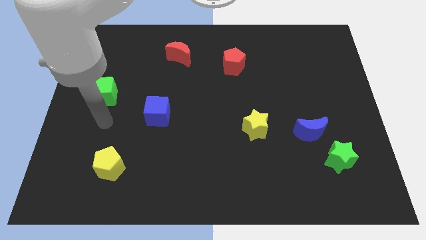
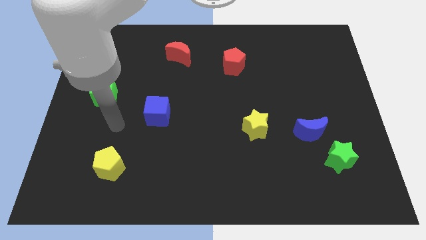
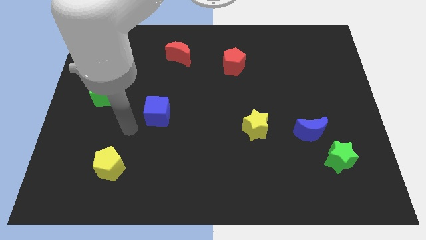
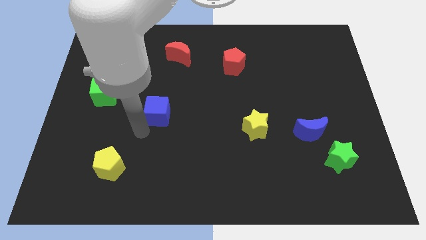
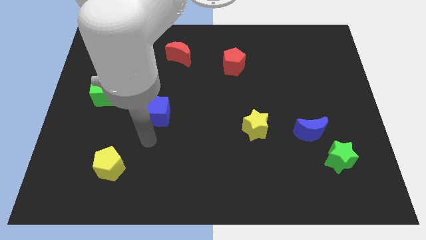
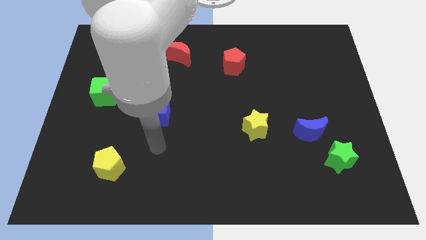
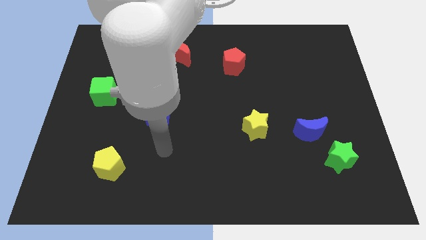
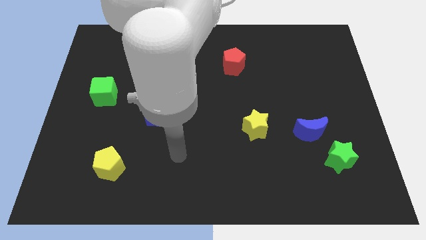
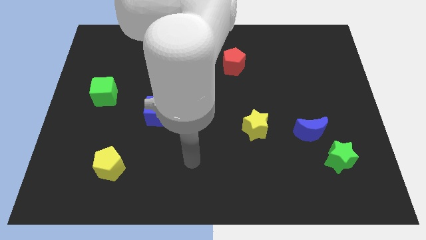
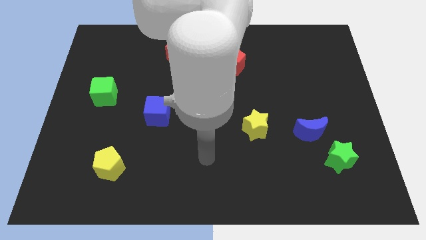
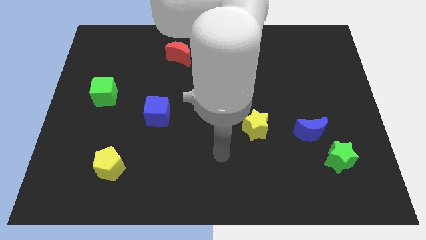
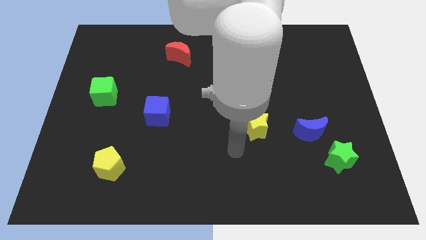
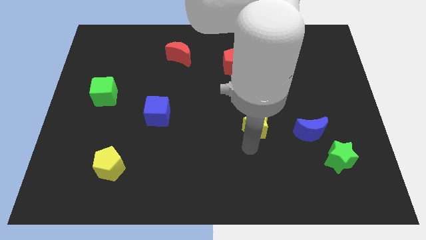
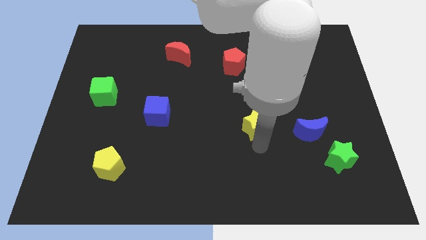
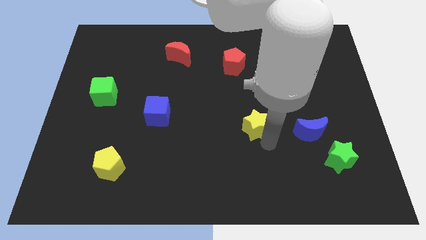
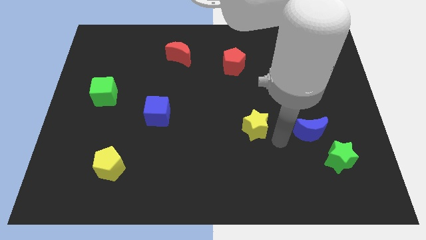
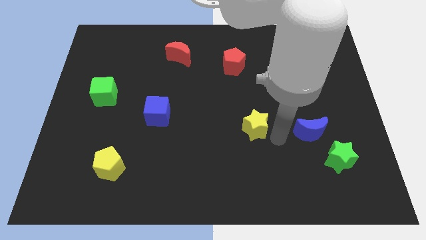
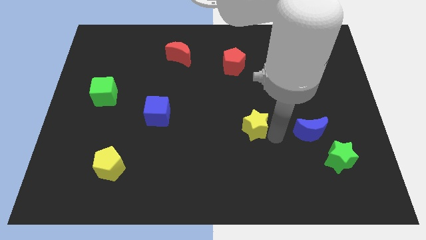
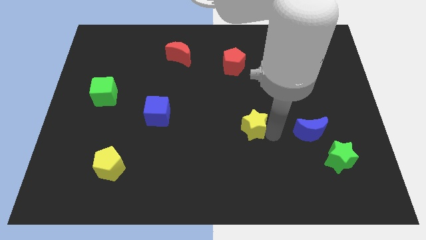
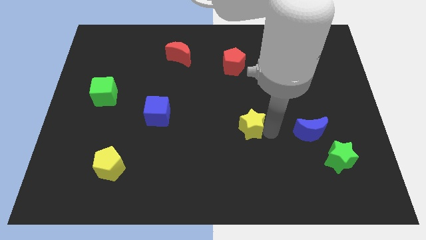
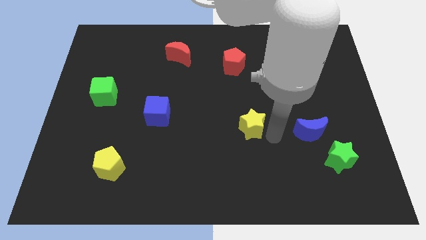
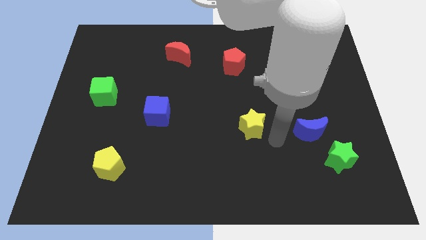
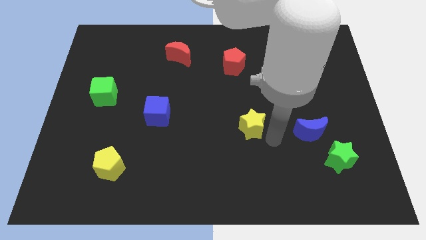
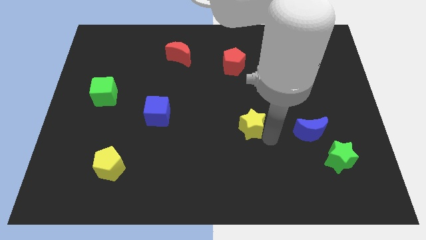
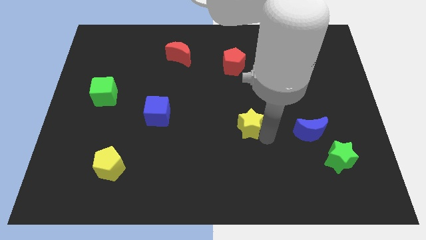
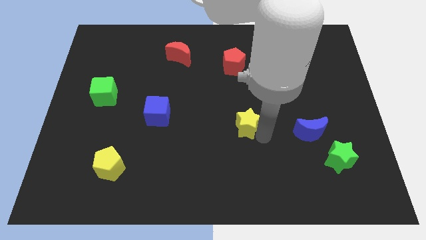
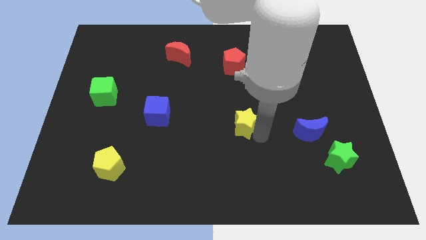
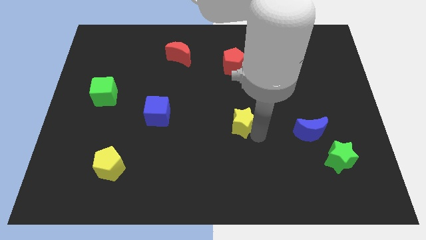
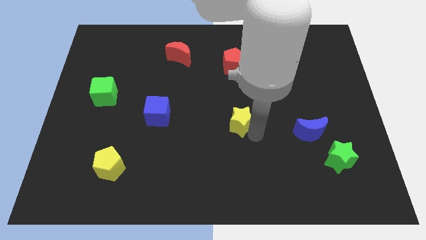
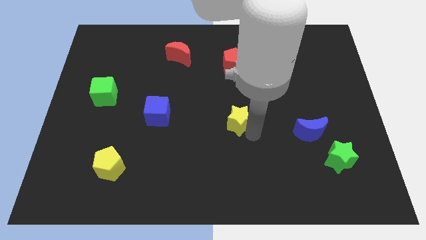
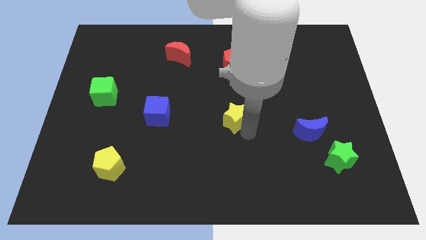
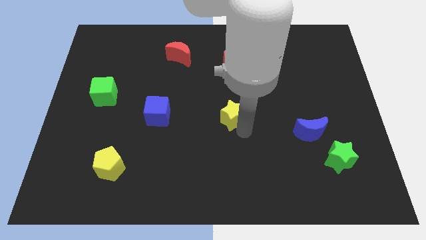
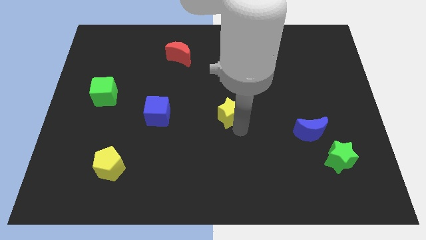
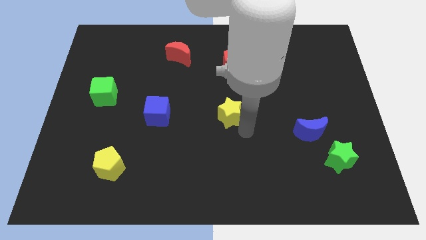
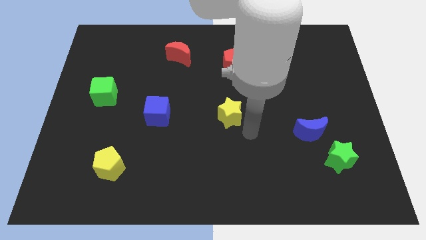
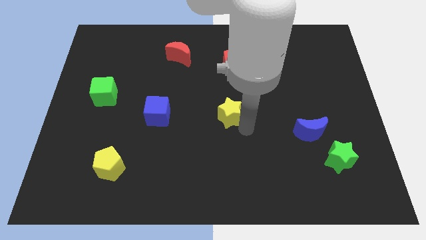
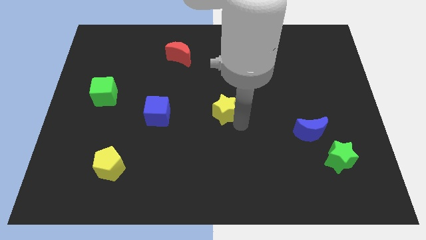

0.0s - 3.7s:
push the yellow star upwards and left diagonally a bit

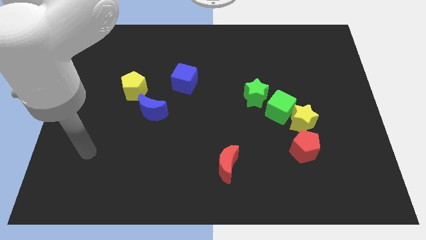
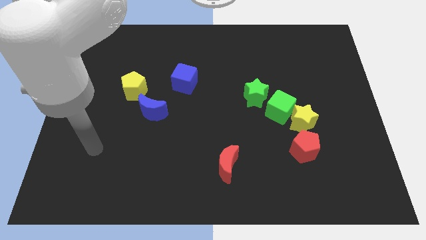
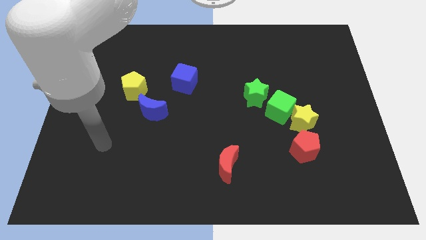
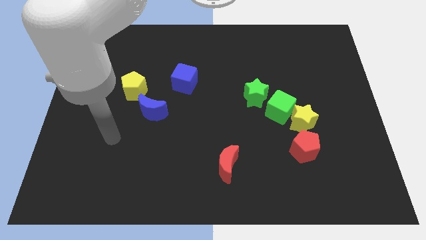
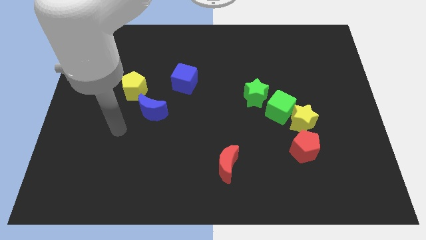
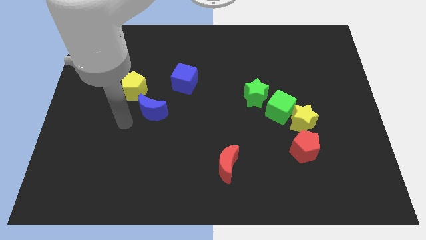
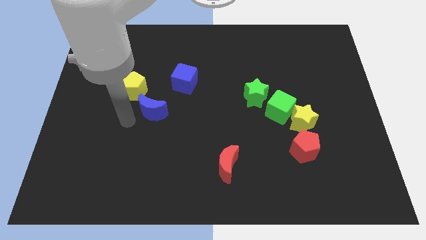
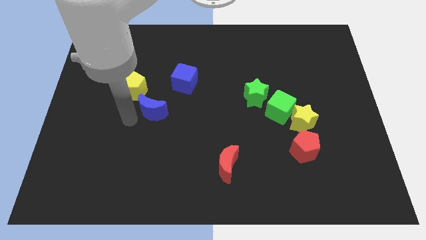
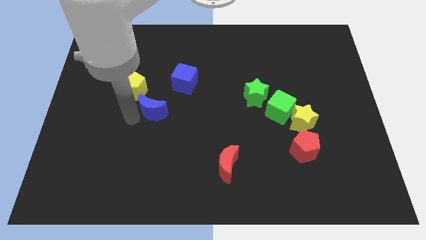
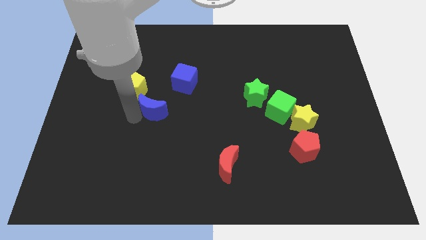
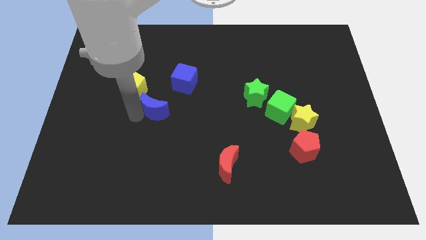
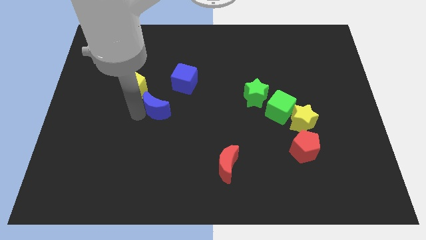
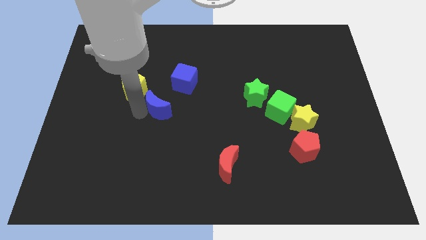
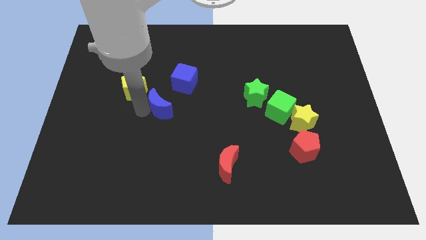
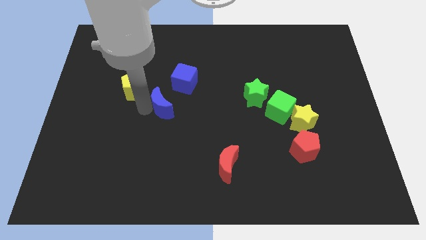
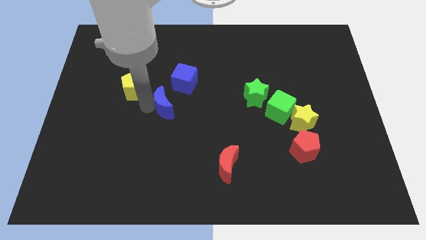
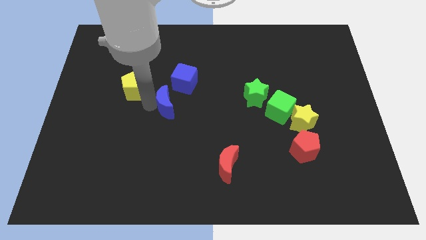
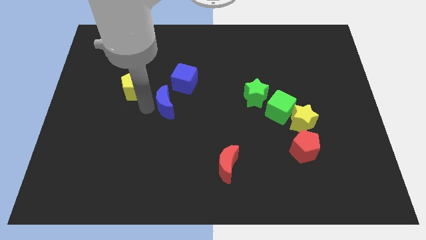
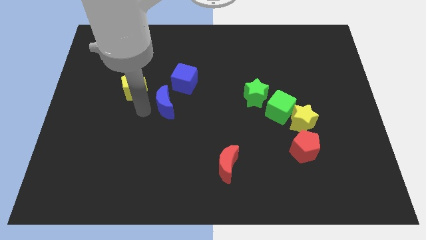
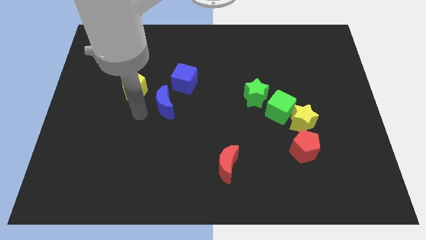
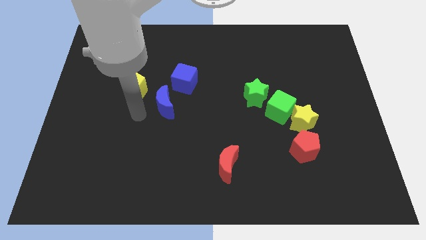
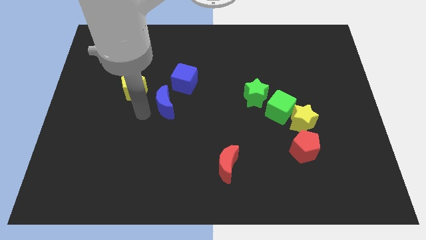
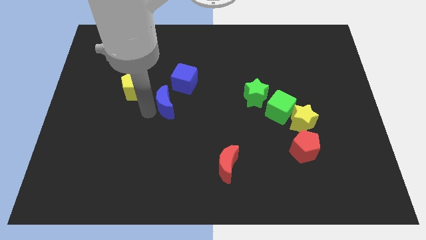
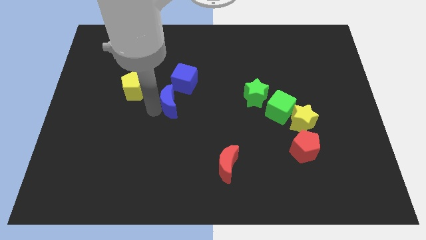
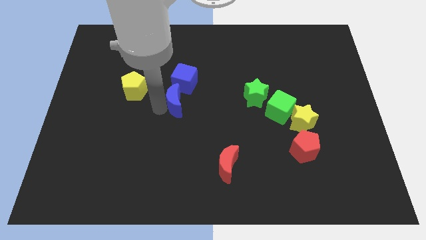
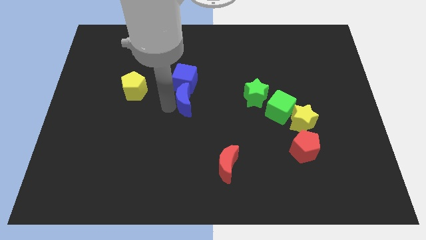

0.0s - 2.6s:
push the blue moon a bit up and to the right diagonally

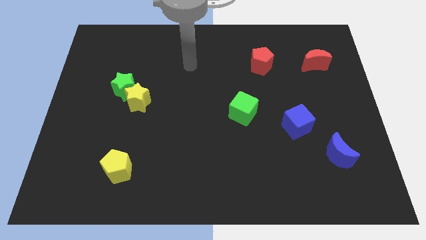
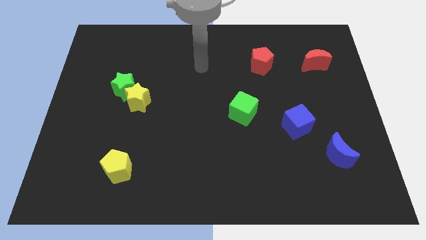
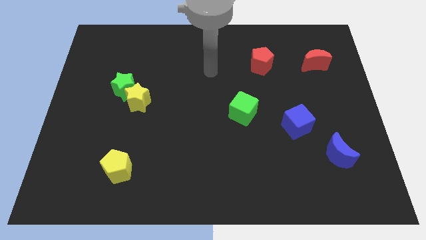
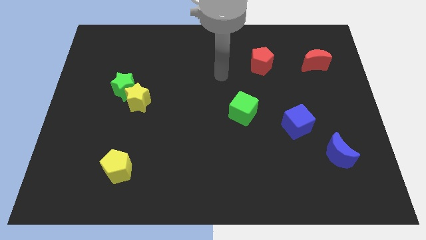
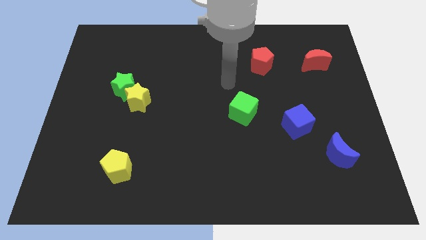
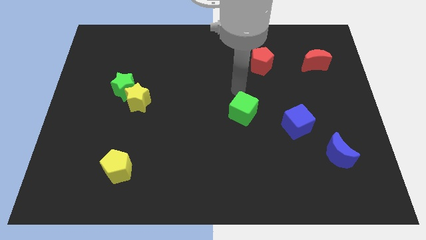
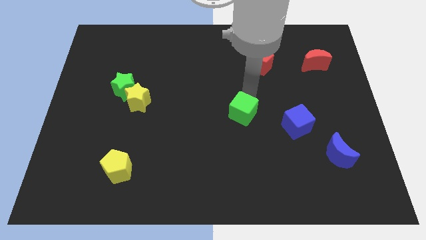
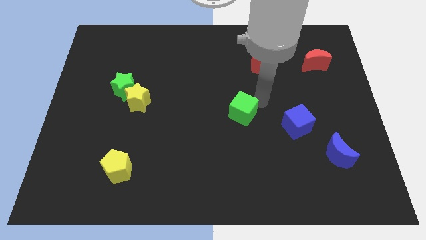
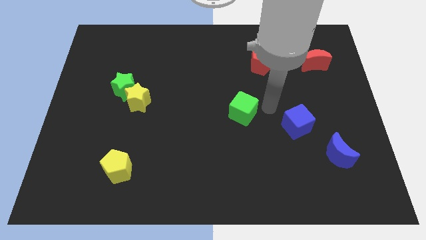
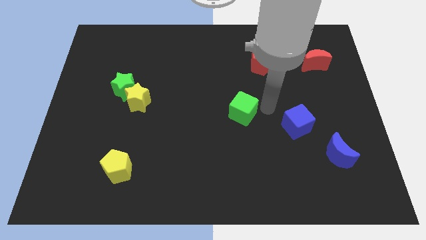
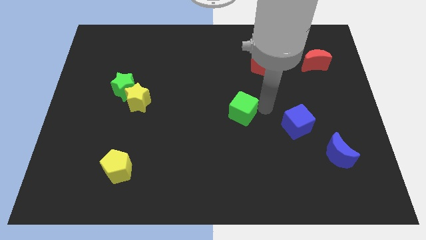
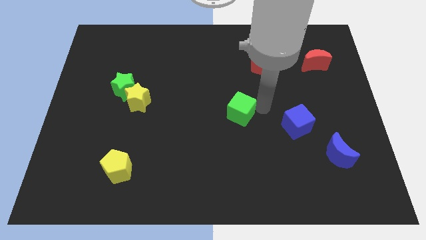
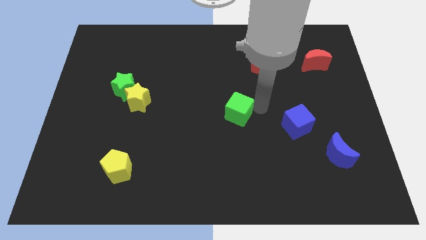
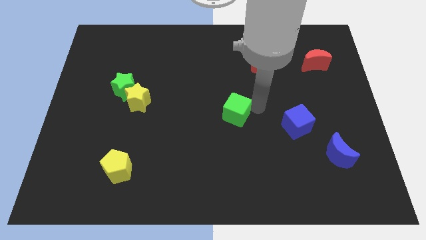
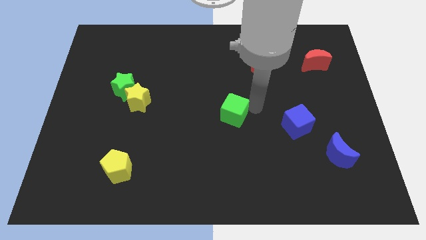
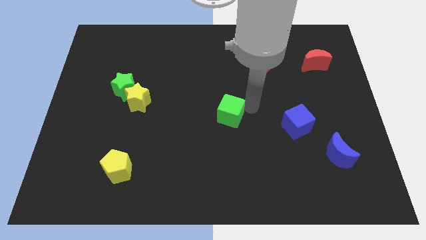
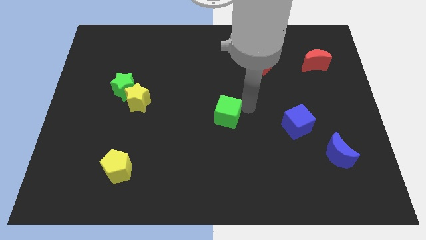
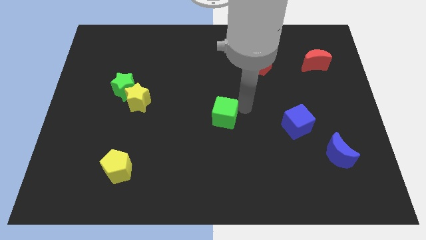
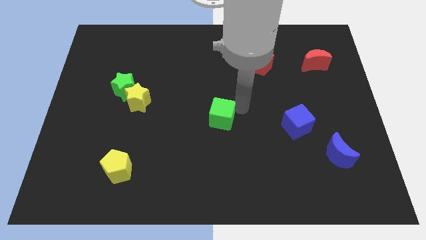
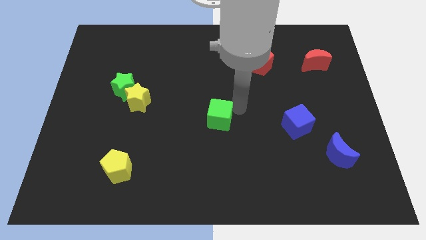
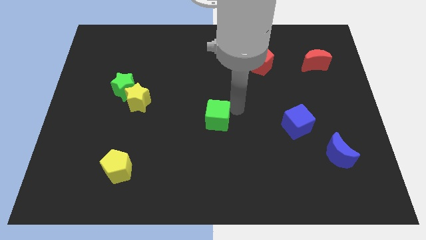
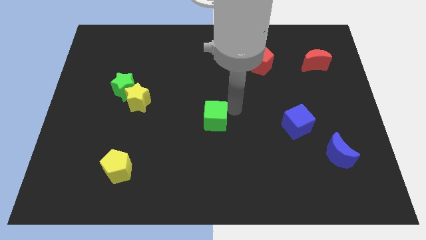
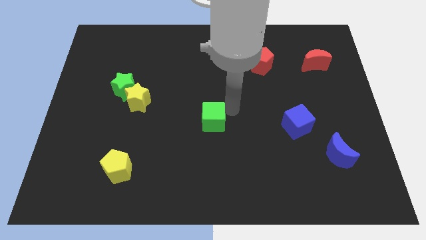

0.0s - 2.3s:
push the green cube a bit left

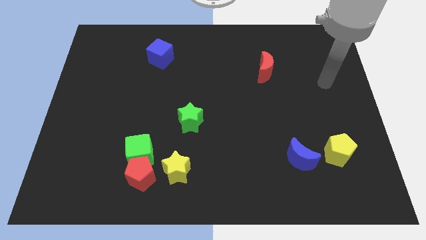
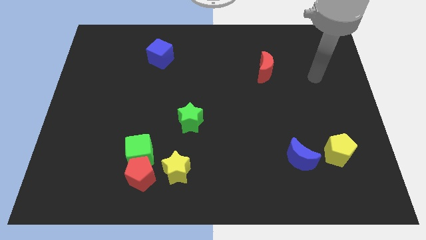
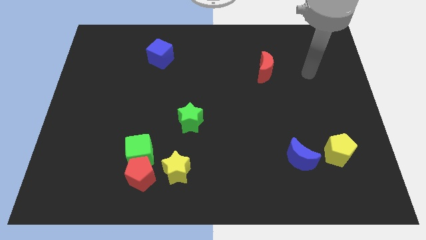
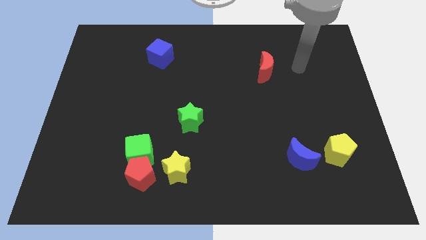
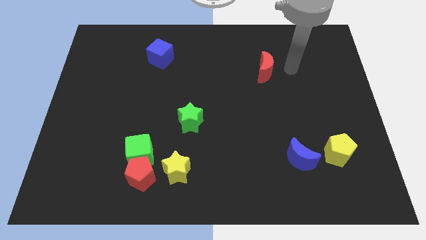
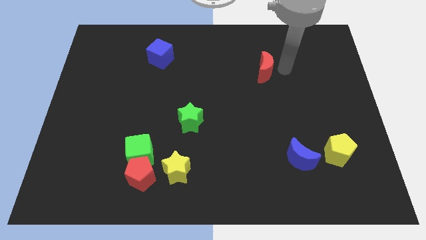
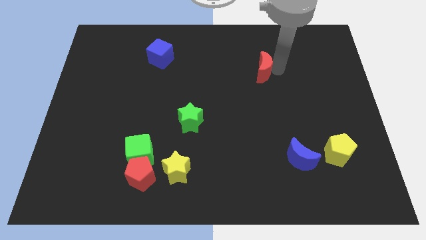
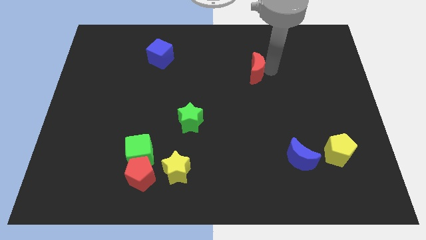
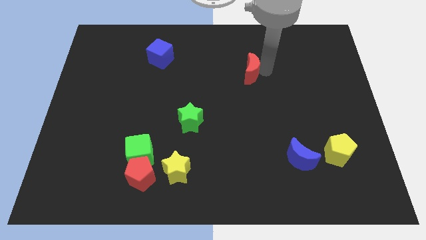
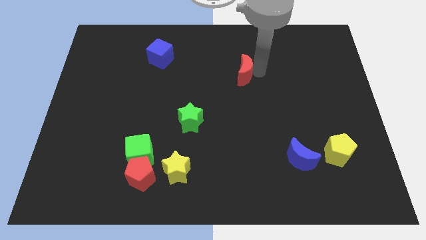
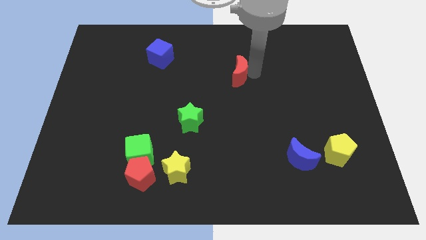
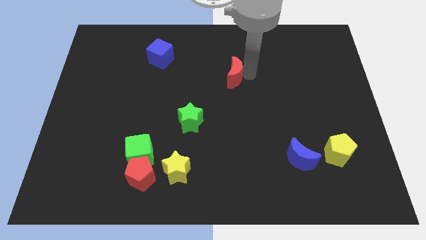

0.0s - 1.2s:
push the red moon to the left somewhat
